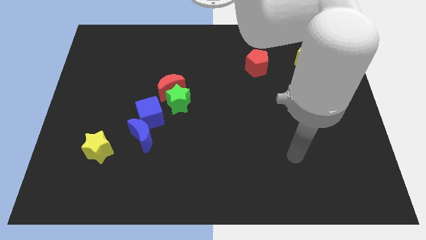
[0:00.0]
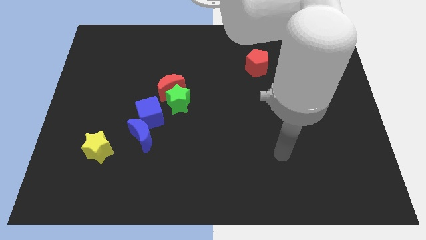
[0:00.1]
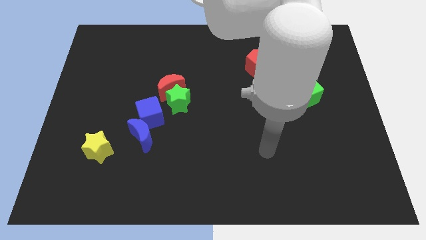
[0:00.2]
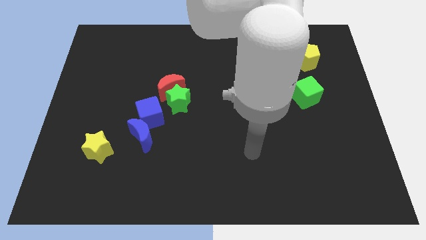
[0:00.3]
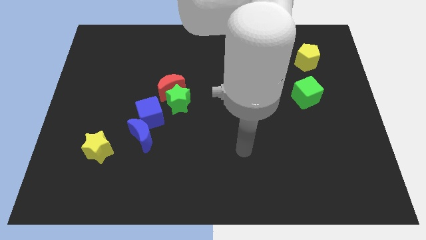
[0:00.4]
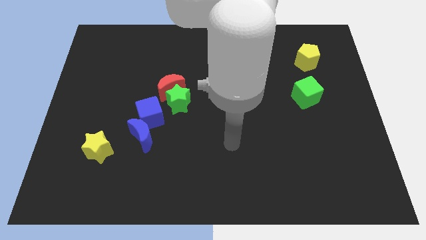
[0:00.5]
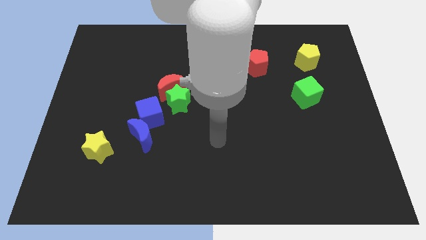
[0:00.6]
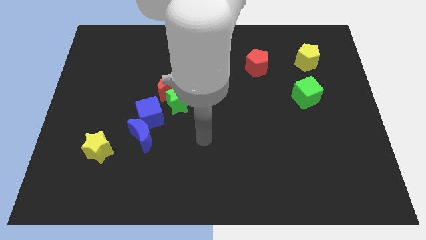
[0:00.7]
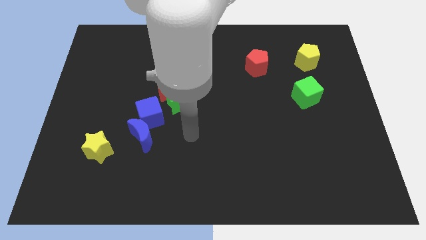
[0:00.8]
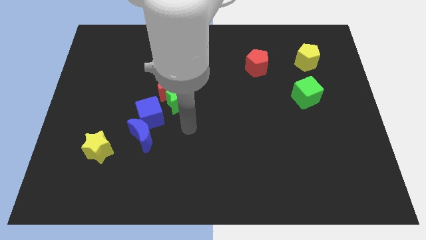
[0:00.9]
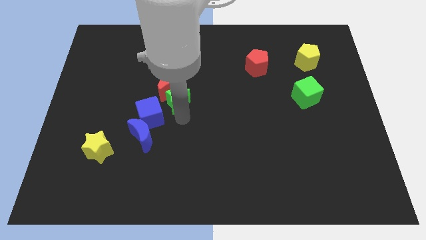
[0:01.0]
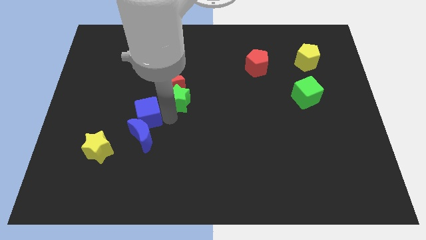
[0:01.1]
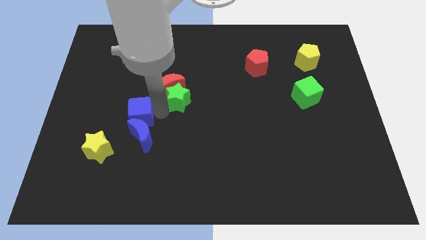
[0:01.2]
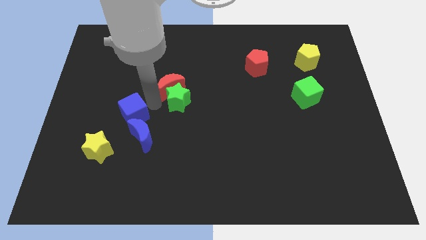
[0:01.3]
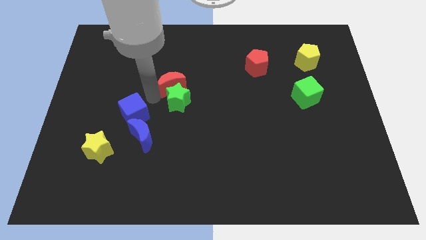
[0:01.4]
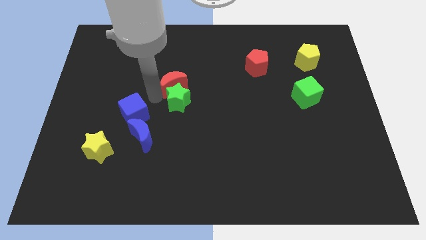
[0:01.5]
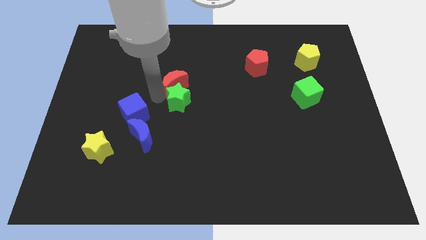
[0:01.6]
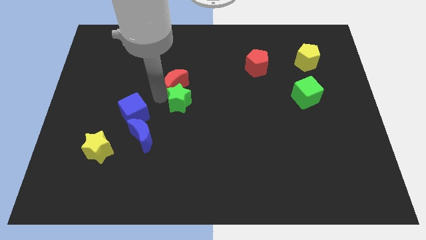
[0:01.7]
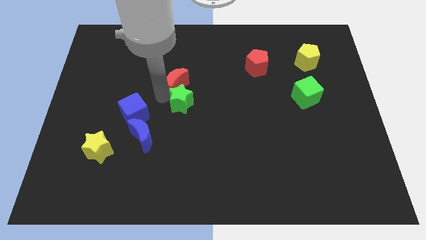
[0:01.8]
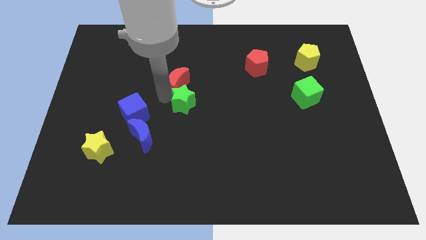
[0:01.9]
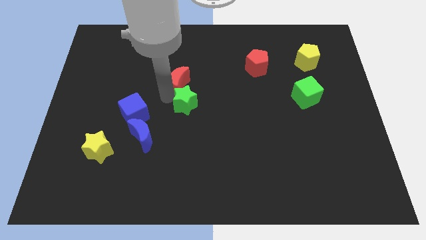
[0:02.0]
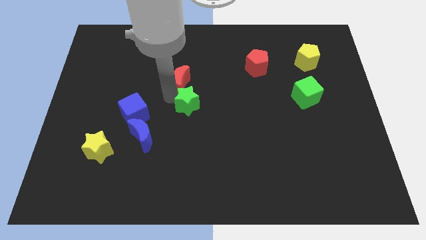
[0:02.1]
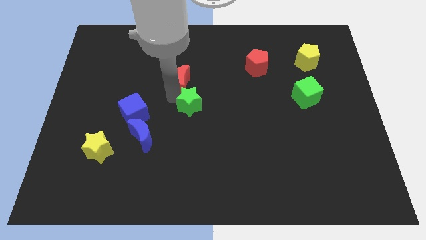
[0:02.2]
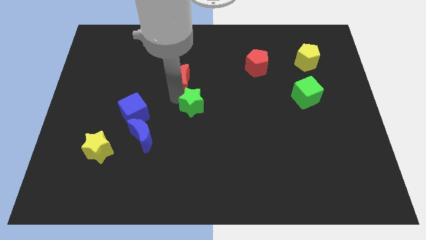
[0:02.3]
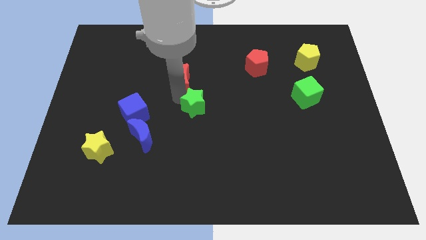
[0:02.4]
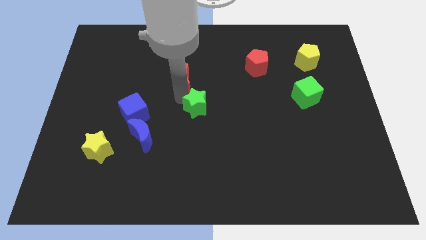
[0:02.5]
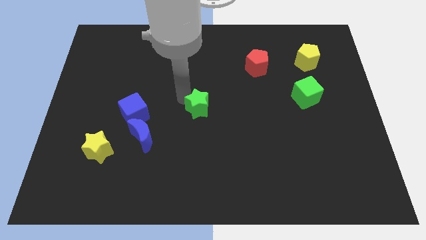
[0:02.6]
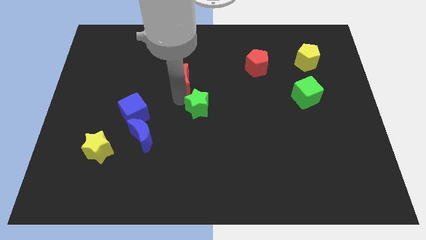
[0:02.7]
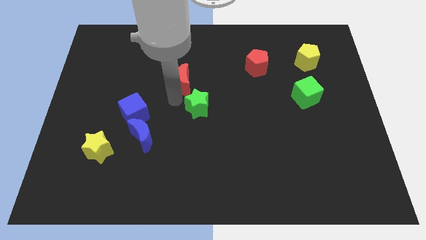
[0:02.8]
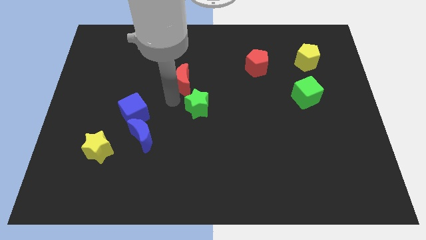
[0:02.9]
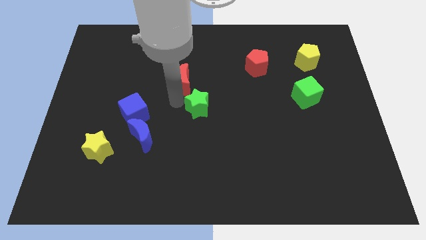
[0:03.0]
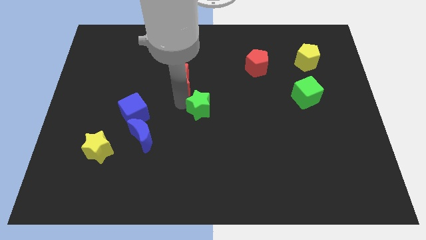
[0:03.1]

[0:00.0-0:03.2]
pull the green star apart from the red moon and blue cube

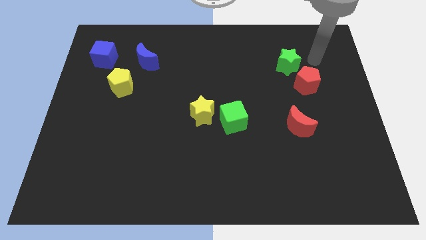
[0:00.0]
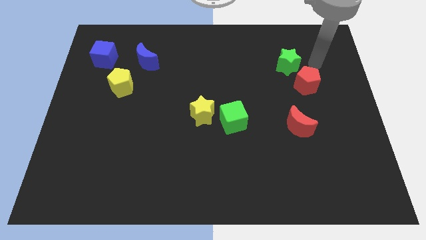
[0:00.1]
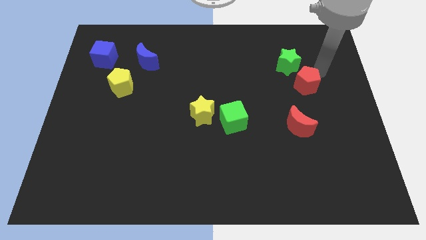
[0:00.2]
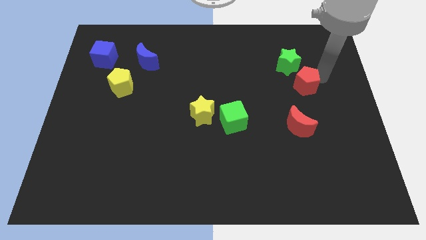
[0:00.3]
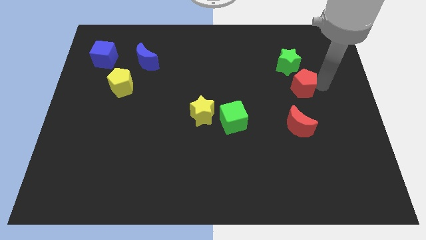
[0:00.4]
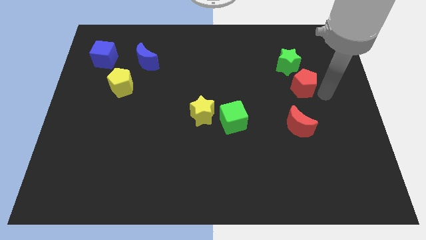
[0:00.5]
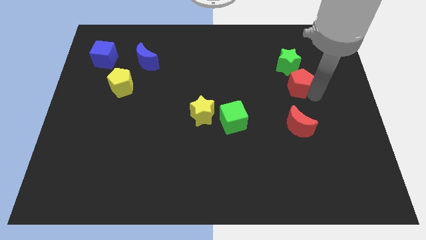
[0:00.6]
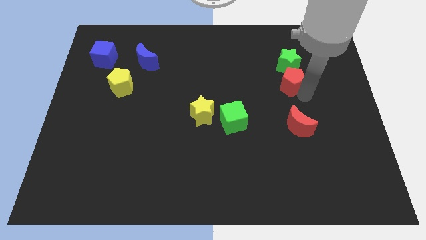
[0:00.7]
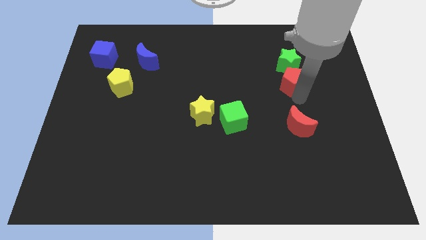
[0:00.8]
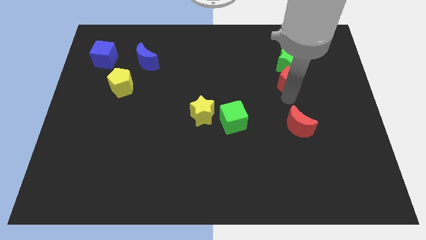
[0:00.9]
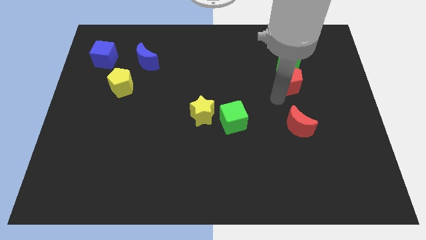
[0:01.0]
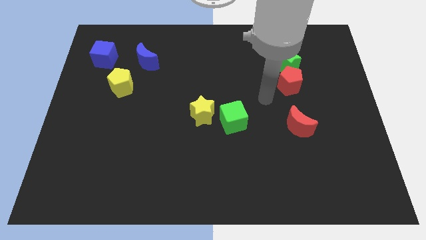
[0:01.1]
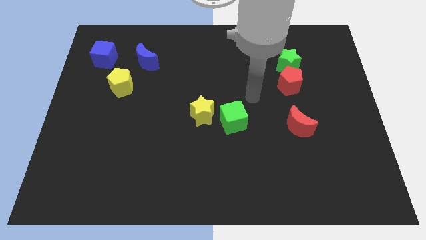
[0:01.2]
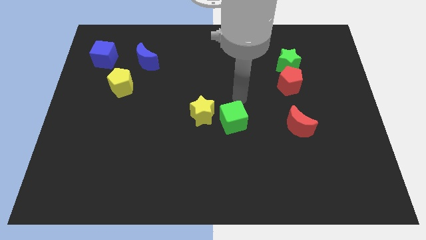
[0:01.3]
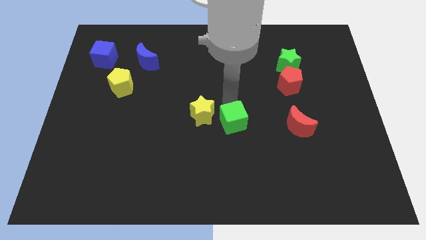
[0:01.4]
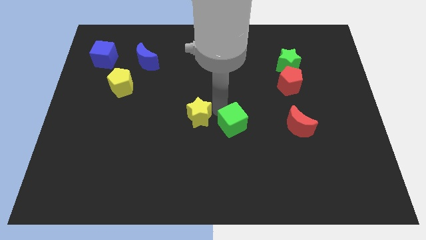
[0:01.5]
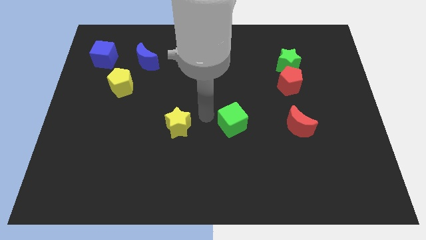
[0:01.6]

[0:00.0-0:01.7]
separate the green cube from the yellow star

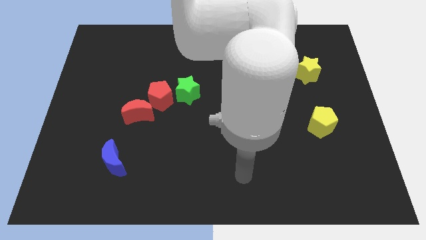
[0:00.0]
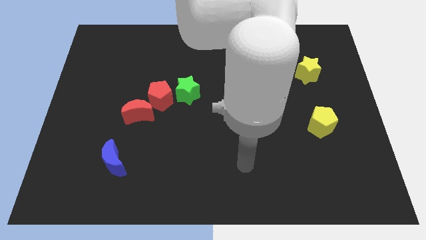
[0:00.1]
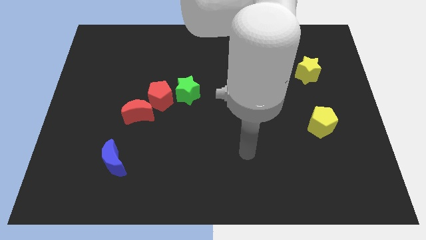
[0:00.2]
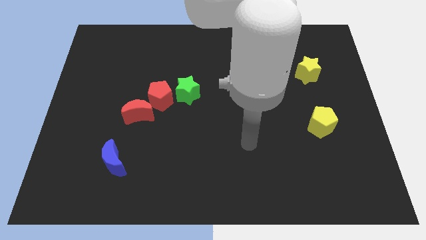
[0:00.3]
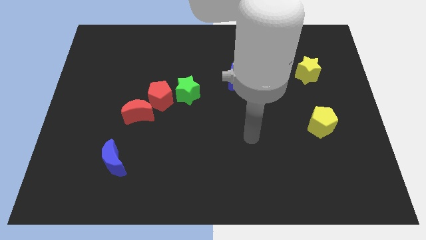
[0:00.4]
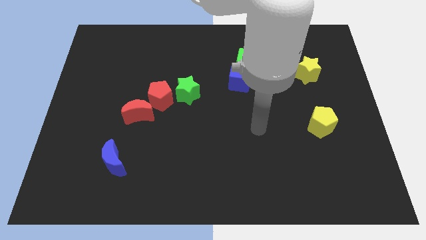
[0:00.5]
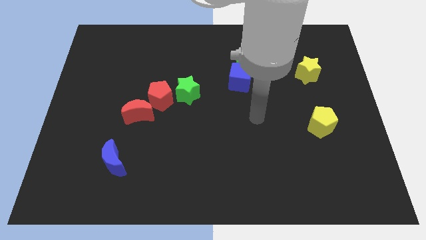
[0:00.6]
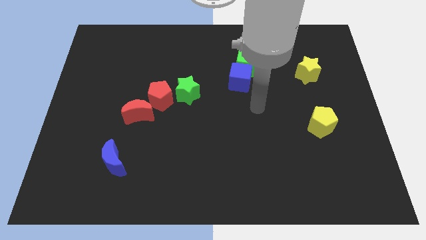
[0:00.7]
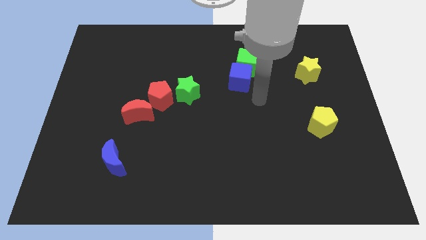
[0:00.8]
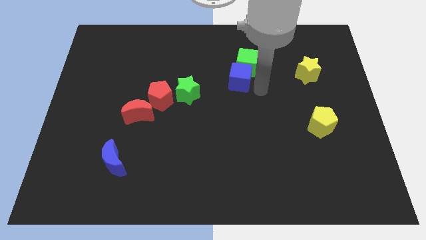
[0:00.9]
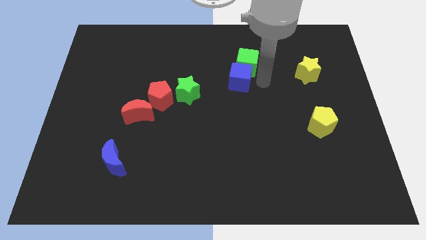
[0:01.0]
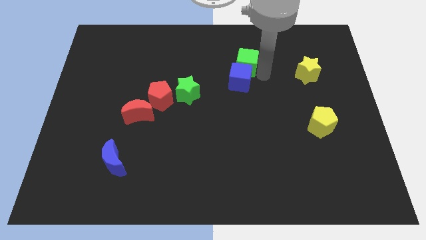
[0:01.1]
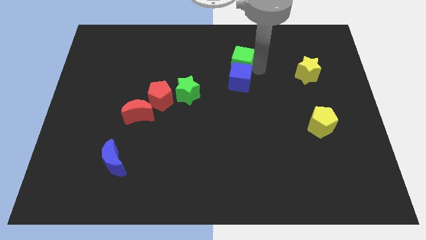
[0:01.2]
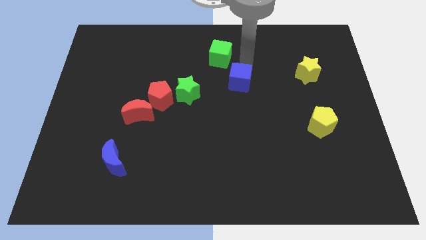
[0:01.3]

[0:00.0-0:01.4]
separate the blue cube from the green cube

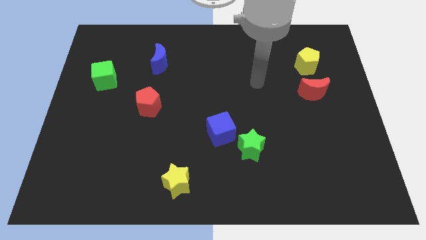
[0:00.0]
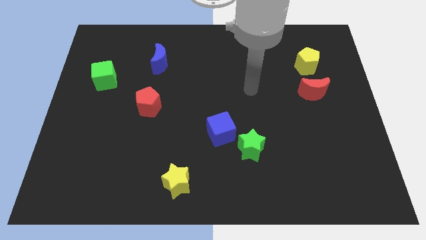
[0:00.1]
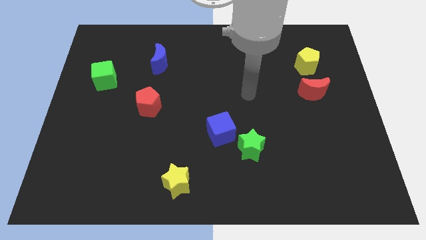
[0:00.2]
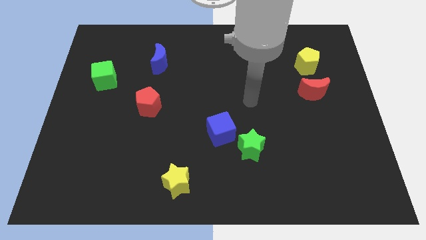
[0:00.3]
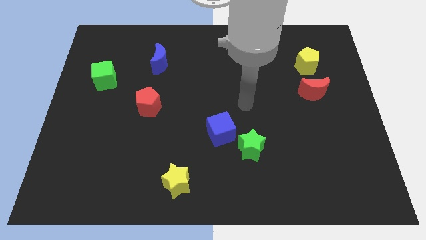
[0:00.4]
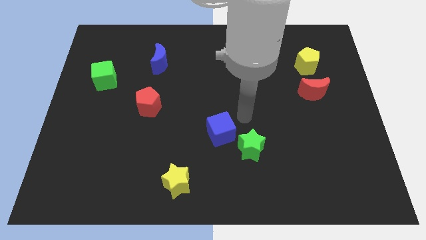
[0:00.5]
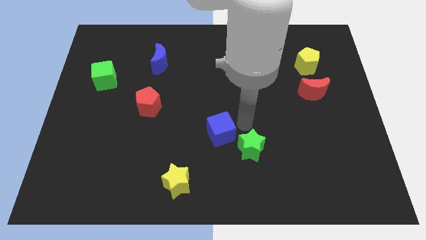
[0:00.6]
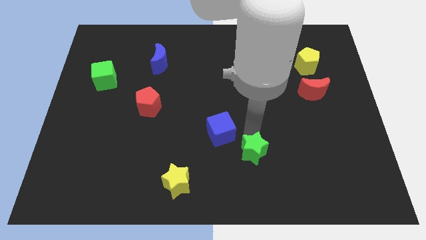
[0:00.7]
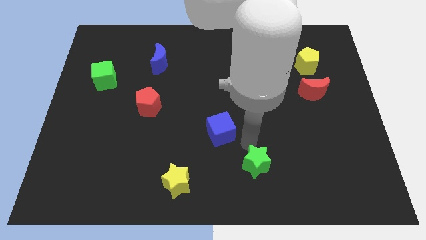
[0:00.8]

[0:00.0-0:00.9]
separate the blue cube from the green star

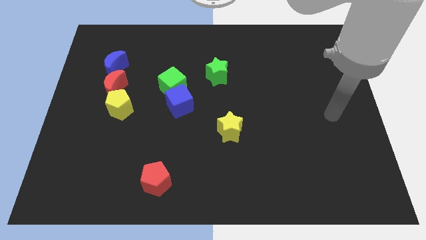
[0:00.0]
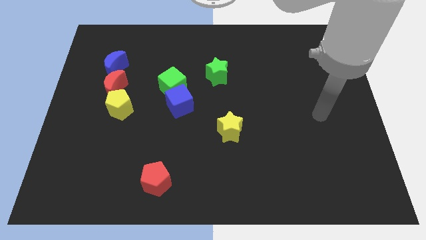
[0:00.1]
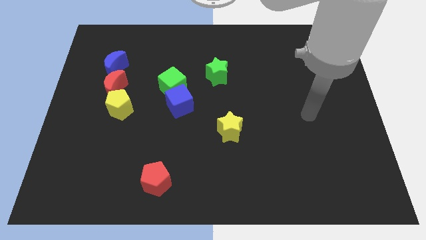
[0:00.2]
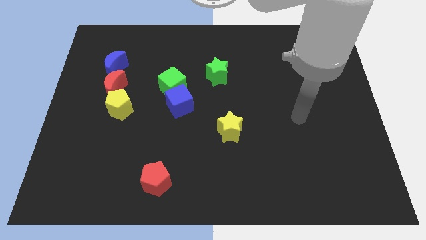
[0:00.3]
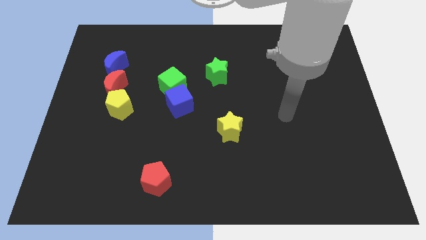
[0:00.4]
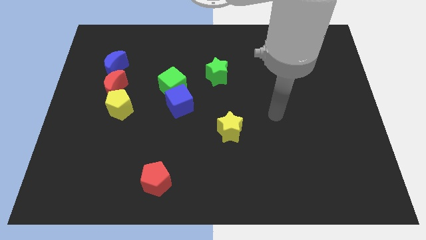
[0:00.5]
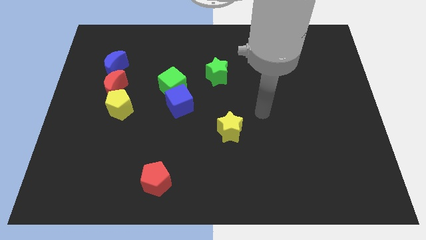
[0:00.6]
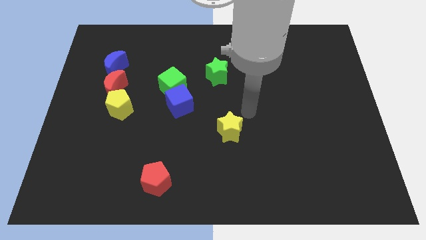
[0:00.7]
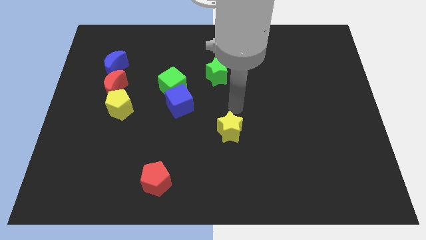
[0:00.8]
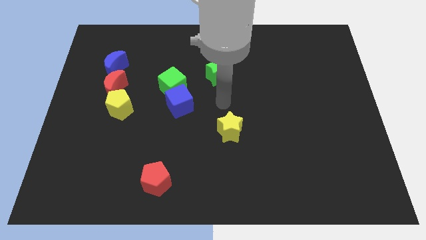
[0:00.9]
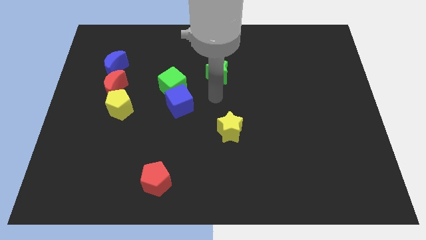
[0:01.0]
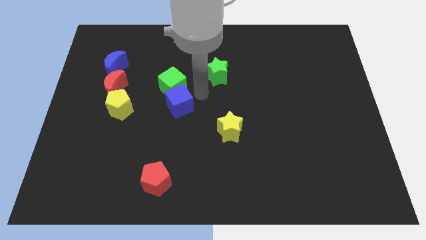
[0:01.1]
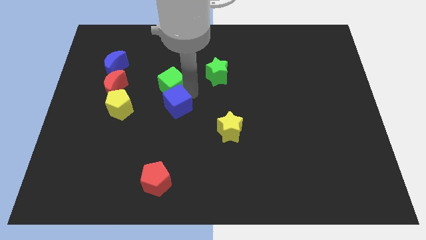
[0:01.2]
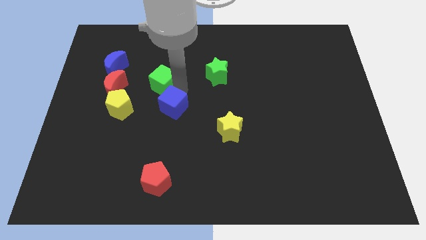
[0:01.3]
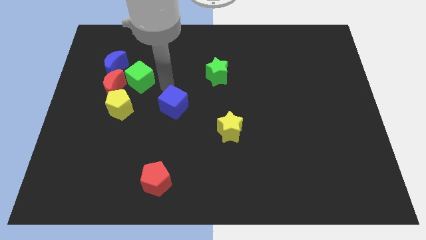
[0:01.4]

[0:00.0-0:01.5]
pull the blue cube apart from the green cube

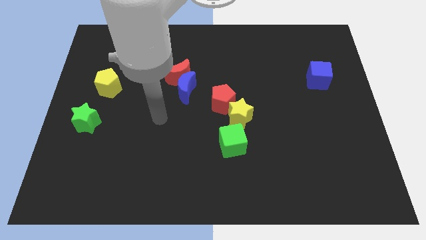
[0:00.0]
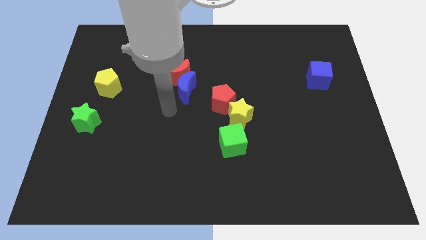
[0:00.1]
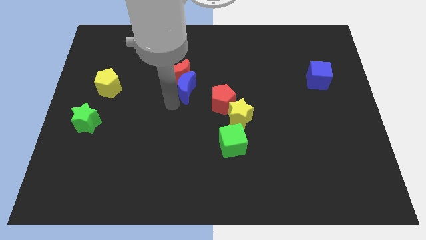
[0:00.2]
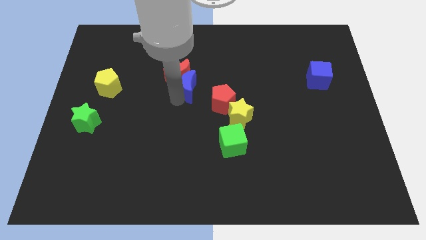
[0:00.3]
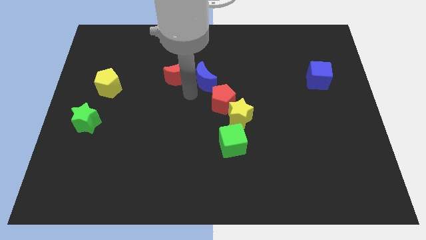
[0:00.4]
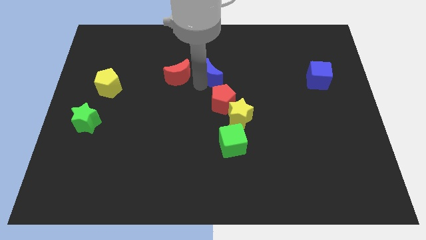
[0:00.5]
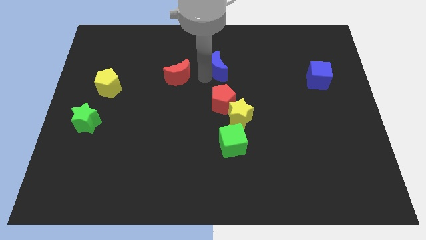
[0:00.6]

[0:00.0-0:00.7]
pull the red moon apart from the blue moon
